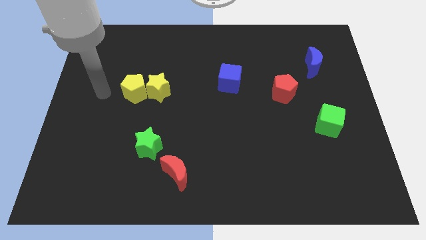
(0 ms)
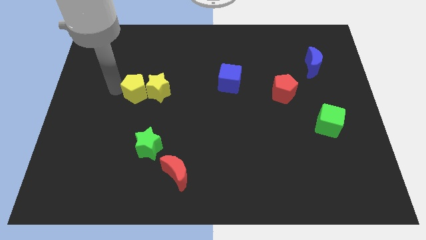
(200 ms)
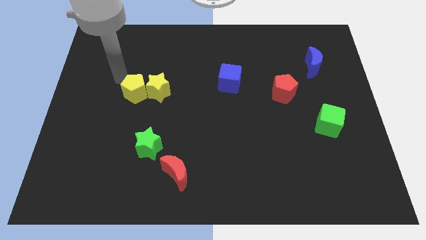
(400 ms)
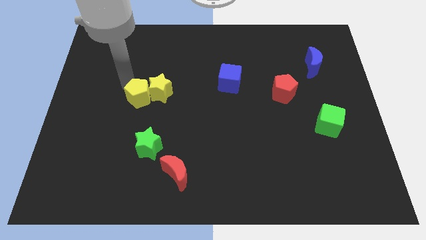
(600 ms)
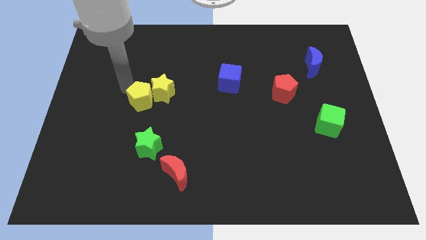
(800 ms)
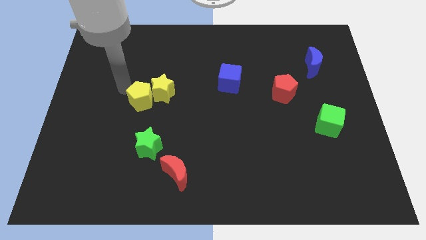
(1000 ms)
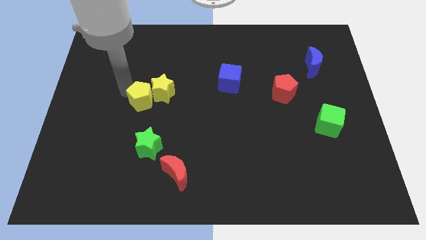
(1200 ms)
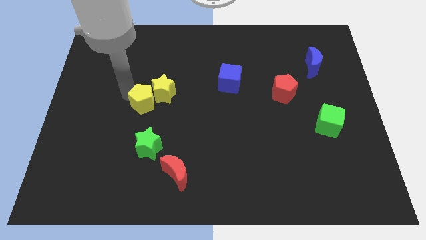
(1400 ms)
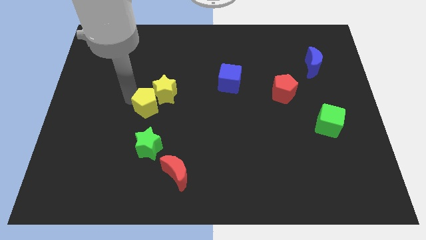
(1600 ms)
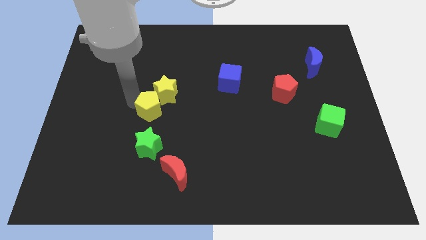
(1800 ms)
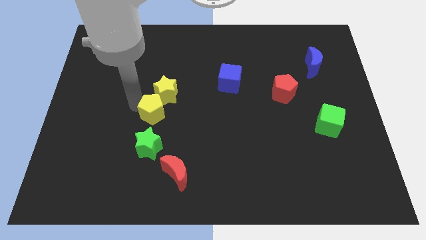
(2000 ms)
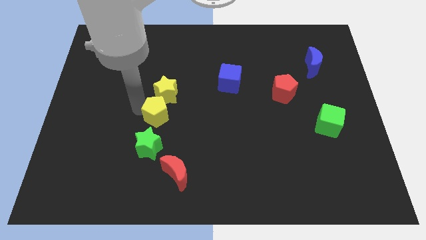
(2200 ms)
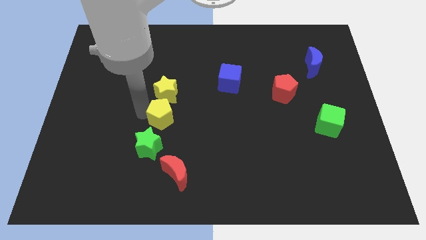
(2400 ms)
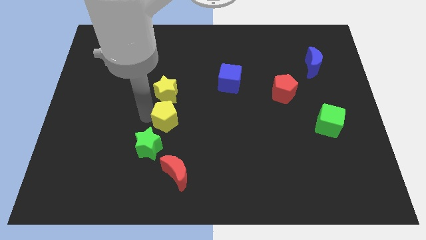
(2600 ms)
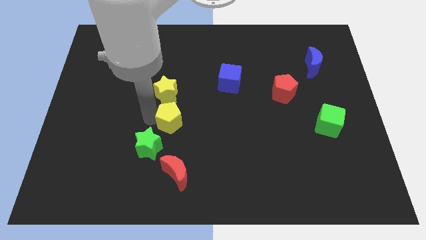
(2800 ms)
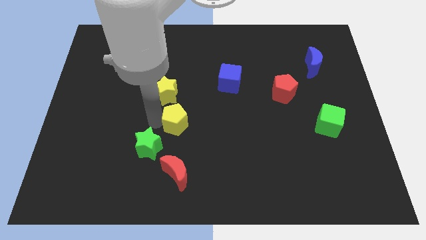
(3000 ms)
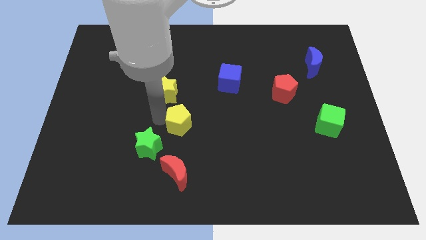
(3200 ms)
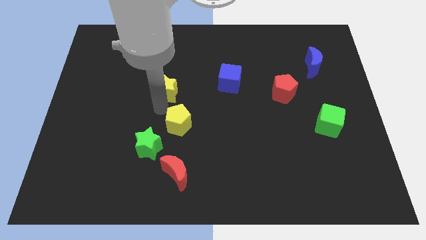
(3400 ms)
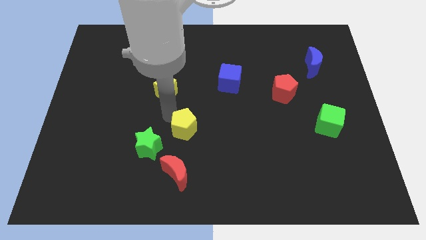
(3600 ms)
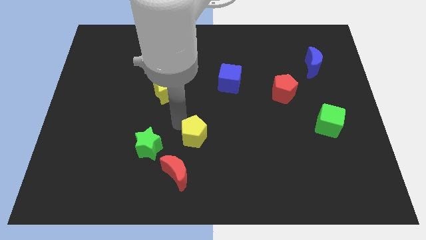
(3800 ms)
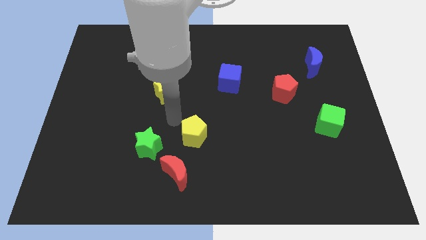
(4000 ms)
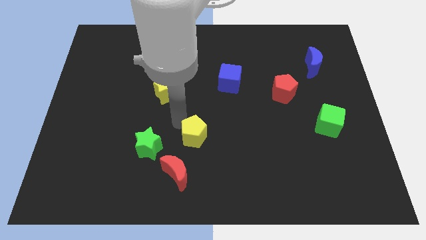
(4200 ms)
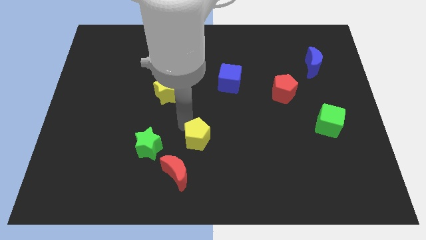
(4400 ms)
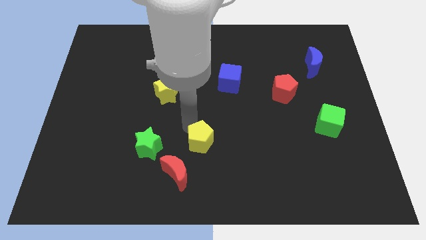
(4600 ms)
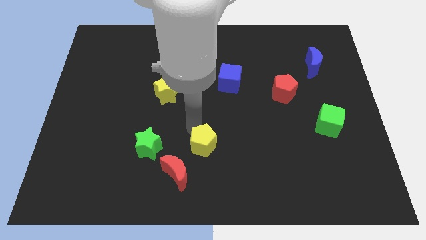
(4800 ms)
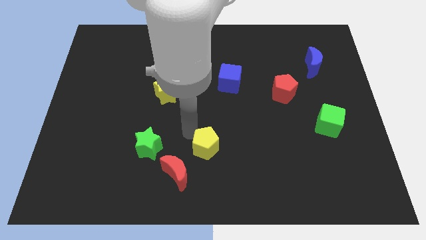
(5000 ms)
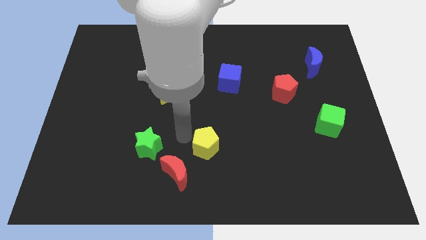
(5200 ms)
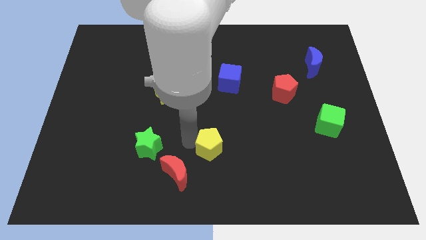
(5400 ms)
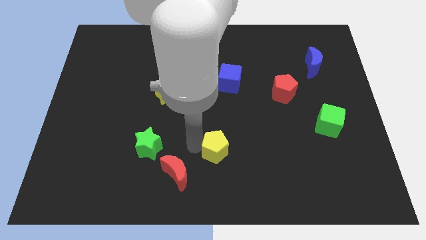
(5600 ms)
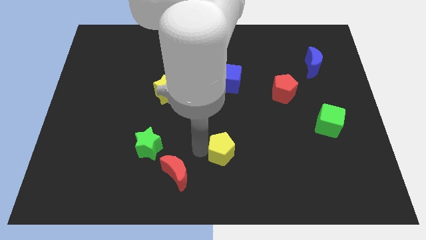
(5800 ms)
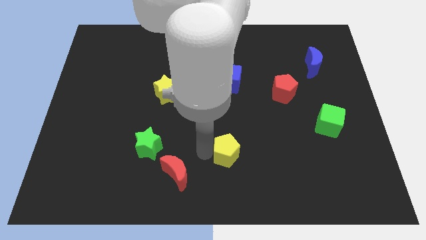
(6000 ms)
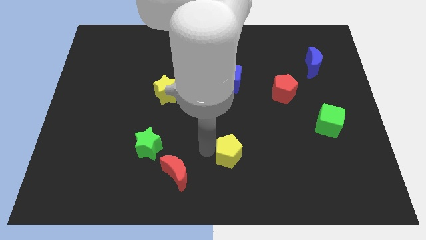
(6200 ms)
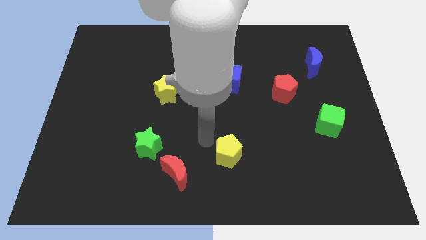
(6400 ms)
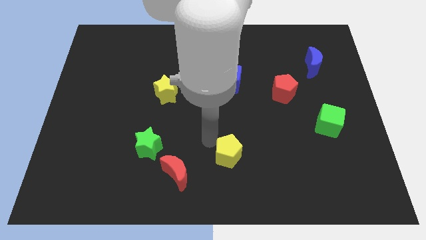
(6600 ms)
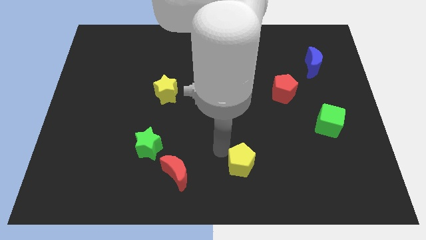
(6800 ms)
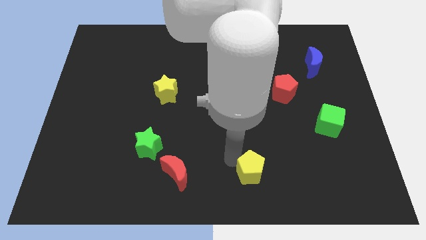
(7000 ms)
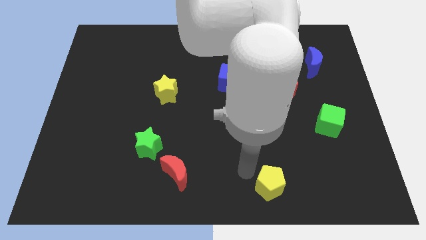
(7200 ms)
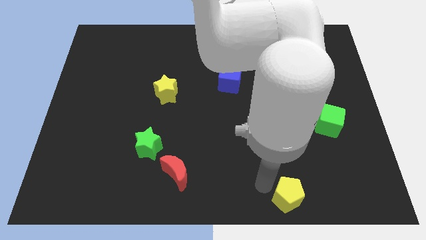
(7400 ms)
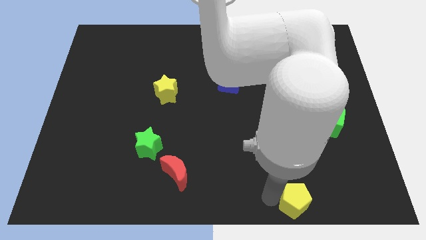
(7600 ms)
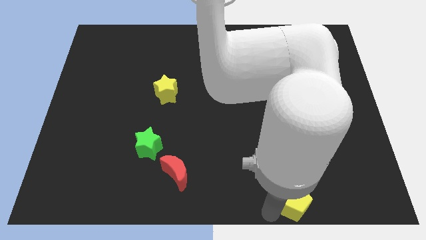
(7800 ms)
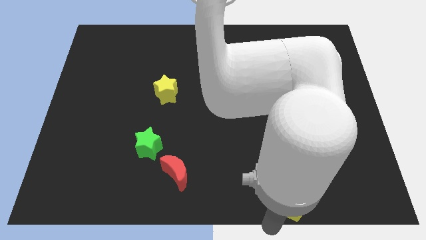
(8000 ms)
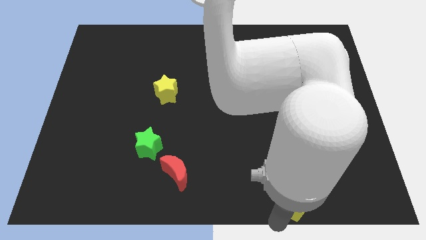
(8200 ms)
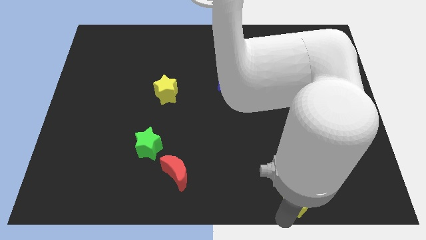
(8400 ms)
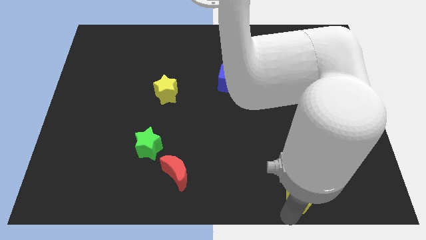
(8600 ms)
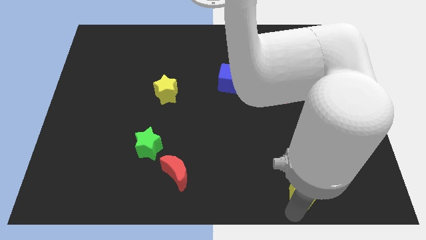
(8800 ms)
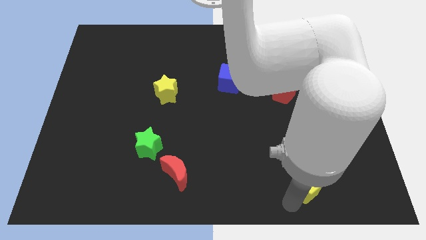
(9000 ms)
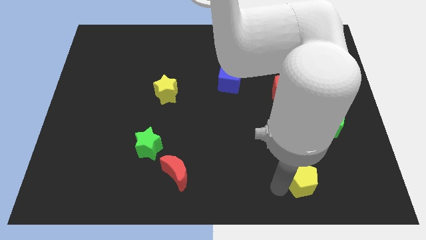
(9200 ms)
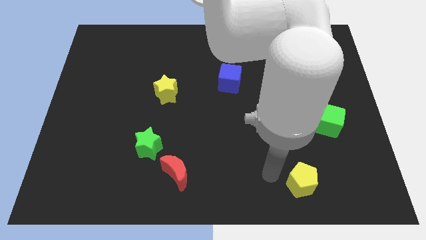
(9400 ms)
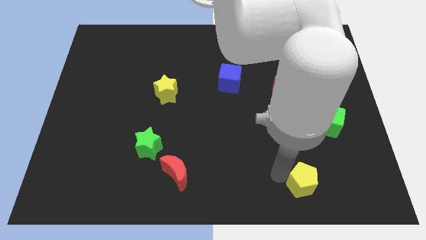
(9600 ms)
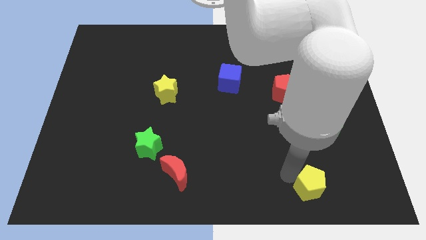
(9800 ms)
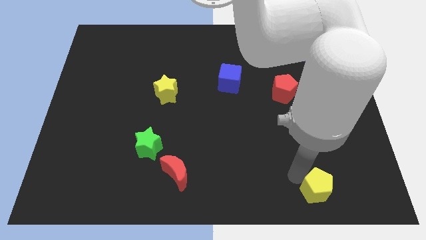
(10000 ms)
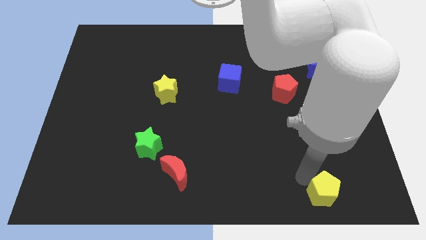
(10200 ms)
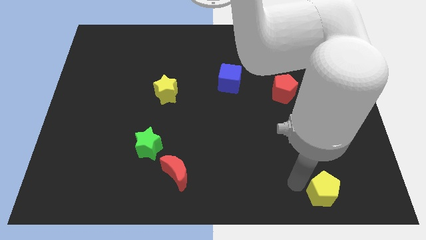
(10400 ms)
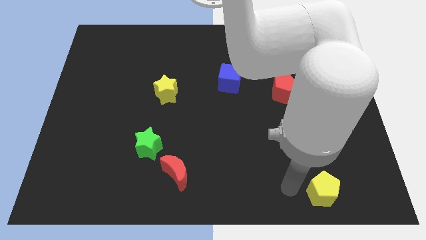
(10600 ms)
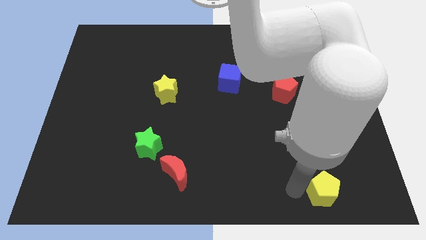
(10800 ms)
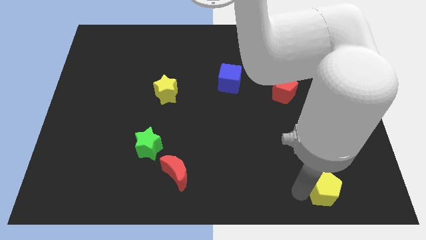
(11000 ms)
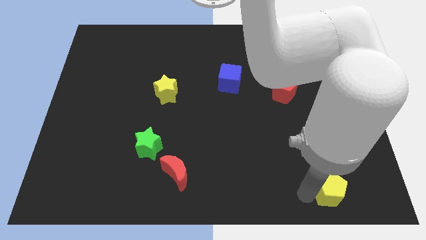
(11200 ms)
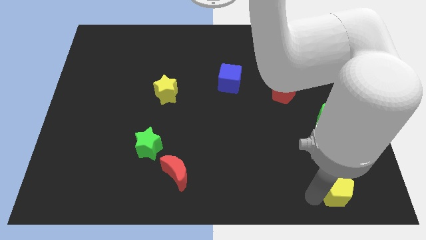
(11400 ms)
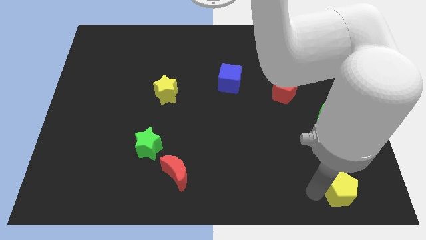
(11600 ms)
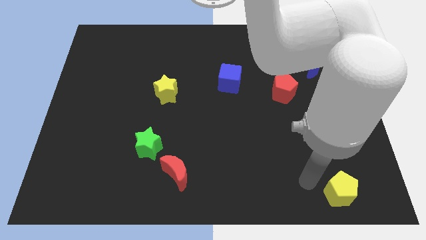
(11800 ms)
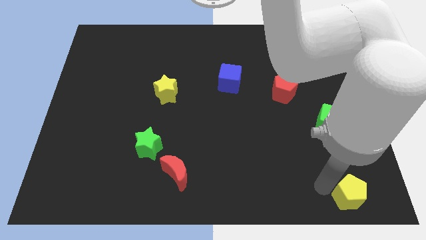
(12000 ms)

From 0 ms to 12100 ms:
put the yellow pentagon to the bottom right of the board
